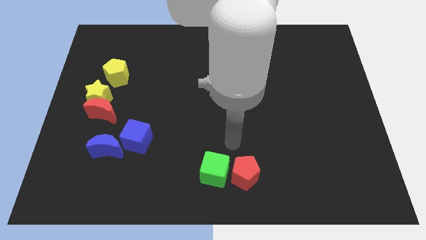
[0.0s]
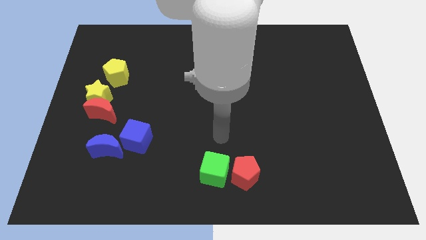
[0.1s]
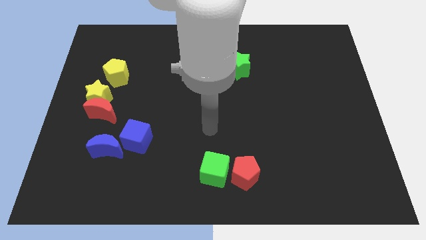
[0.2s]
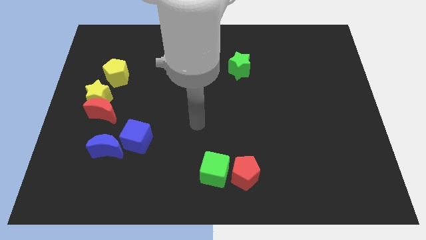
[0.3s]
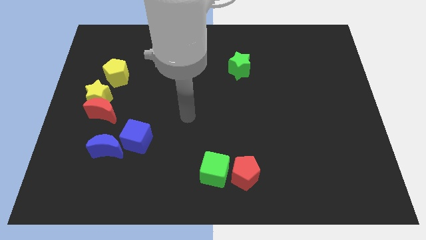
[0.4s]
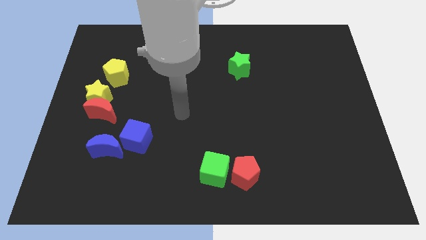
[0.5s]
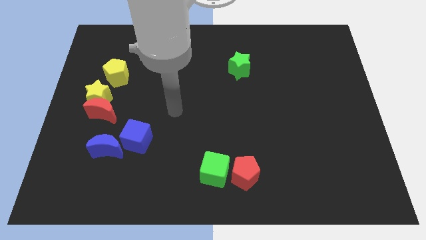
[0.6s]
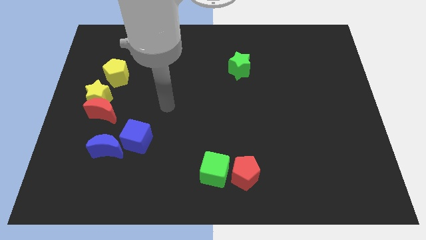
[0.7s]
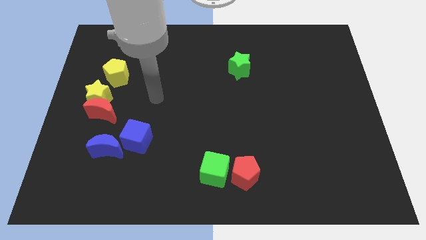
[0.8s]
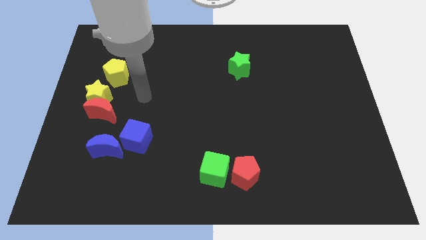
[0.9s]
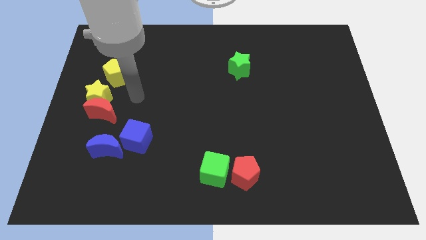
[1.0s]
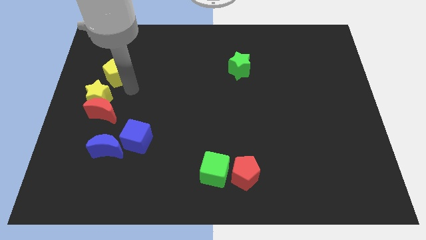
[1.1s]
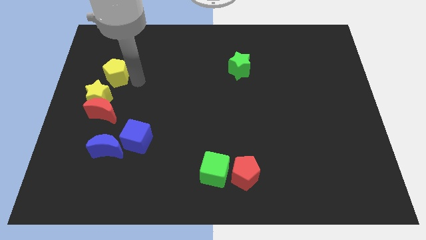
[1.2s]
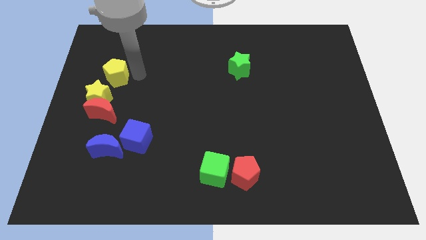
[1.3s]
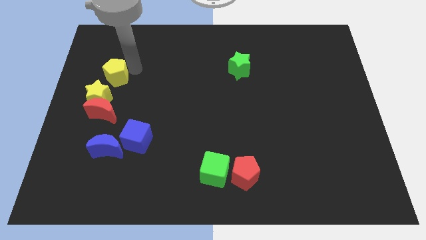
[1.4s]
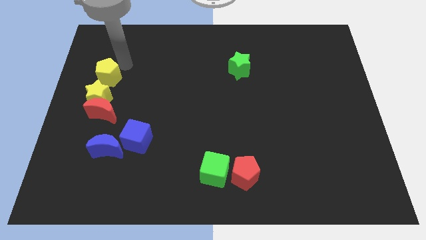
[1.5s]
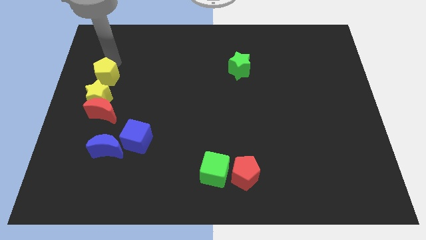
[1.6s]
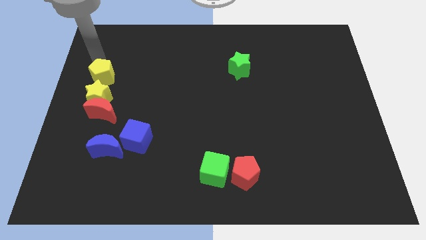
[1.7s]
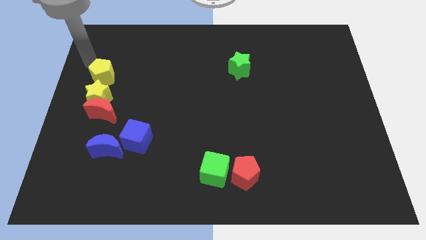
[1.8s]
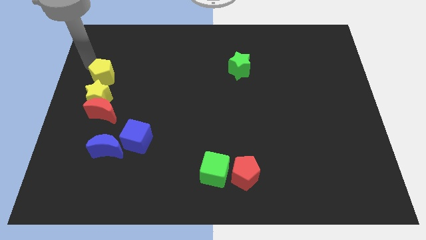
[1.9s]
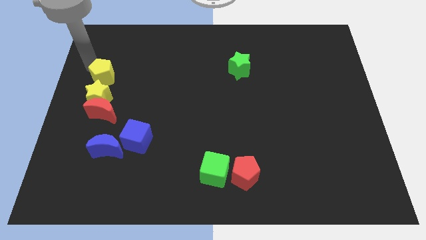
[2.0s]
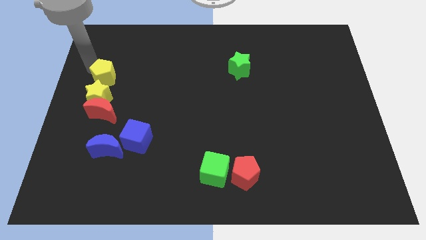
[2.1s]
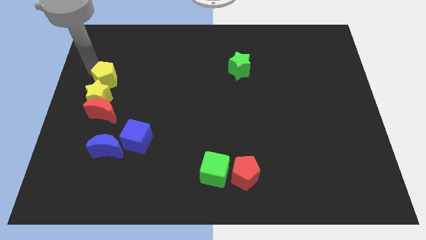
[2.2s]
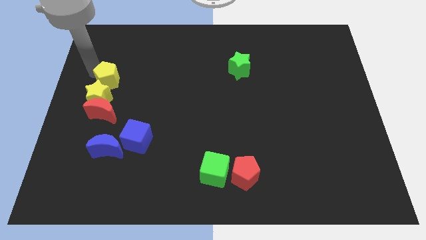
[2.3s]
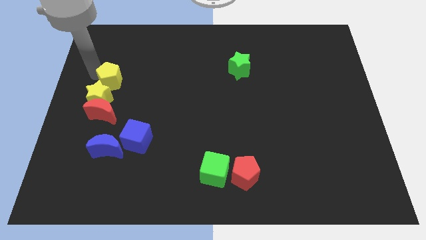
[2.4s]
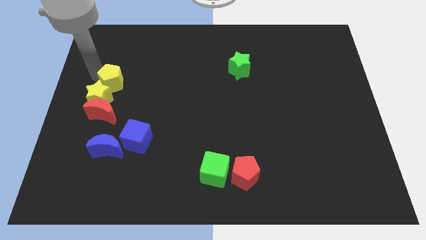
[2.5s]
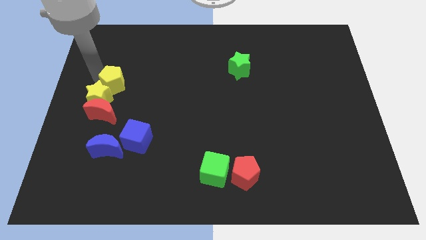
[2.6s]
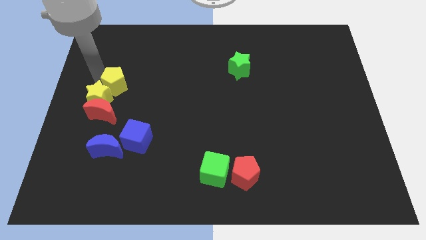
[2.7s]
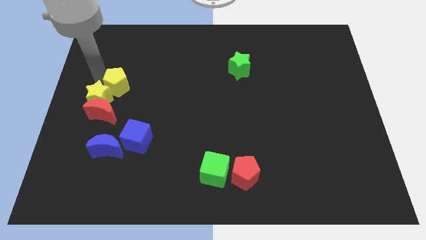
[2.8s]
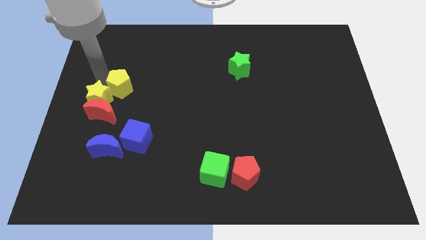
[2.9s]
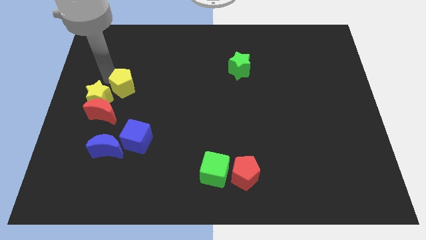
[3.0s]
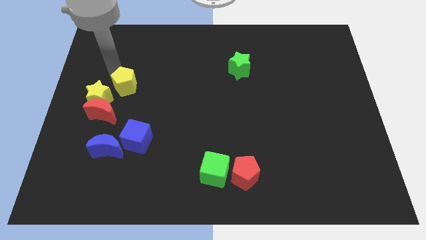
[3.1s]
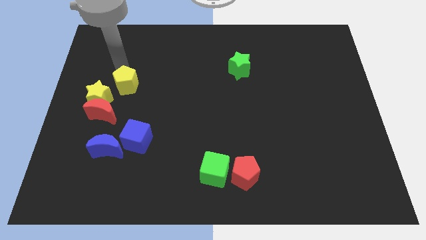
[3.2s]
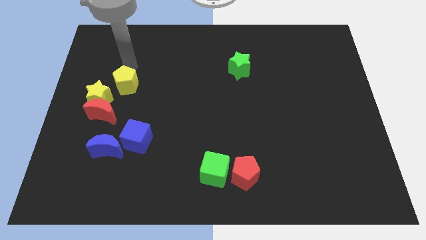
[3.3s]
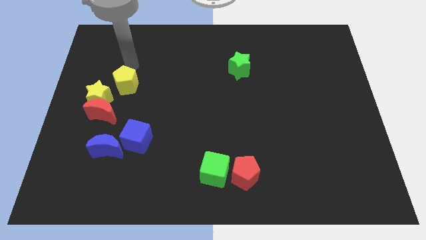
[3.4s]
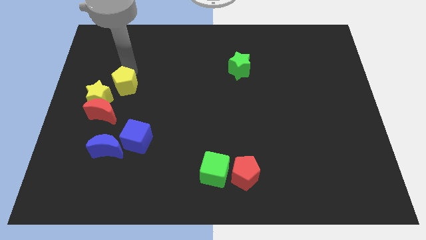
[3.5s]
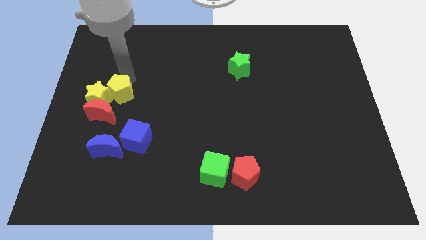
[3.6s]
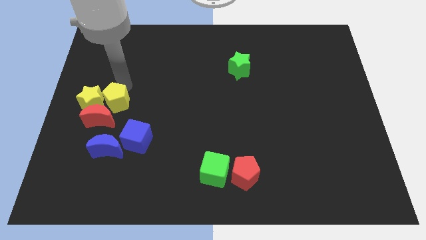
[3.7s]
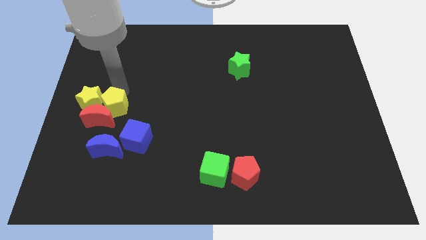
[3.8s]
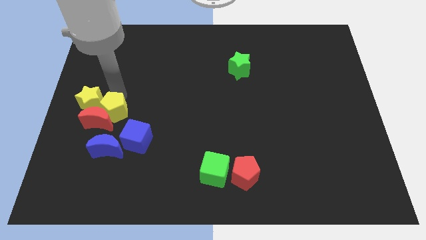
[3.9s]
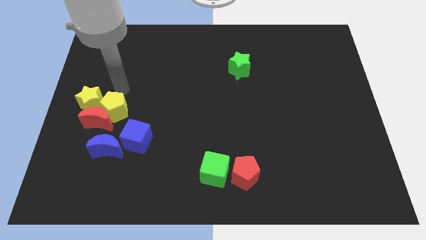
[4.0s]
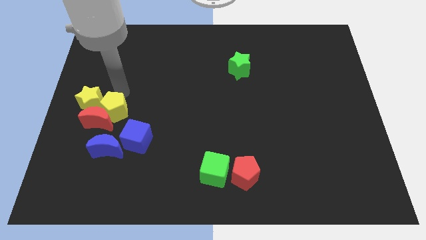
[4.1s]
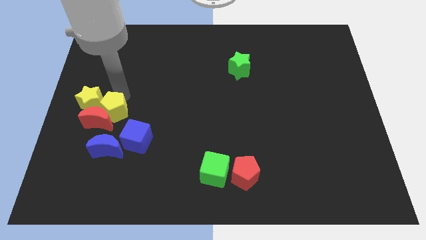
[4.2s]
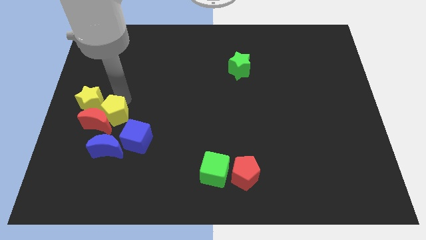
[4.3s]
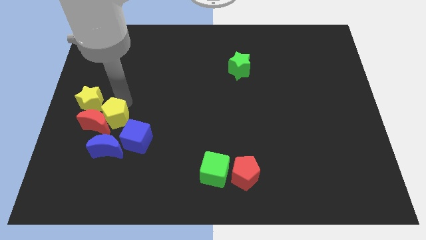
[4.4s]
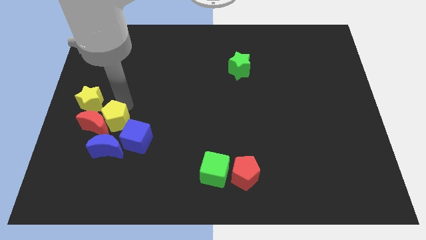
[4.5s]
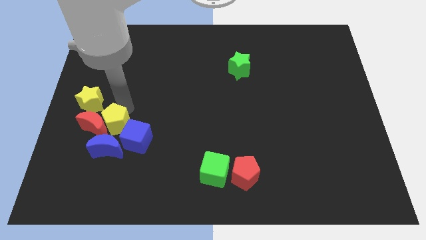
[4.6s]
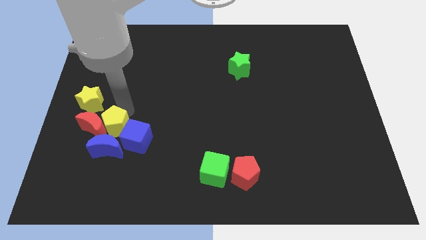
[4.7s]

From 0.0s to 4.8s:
put the yellow pentagon close to the blue moon

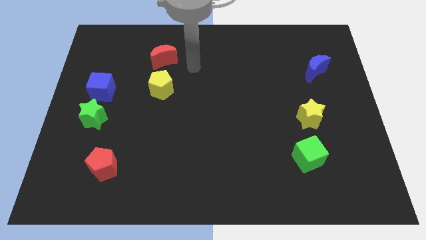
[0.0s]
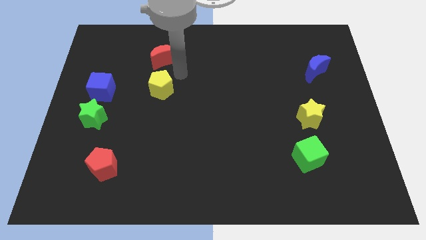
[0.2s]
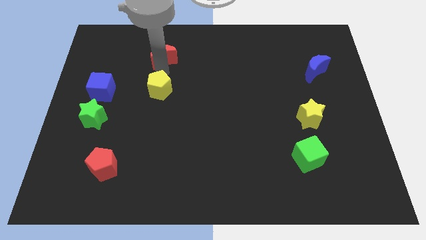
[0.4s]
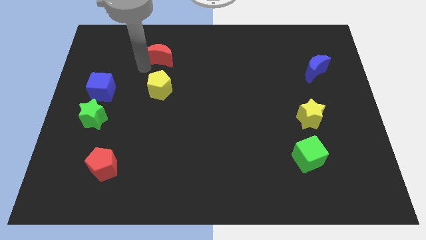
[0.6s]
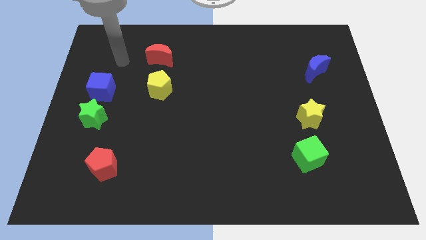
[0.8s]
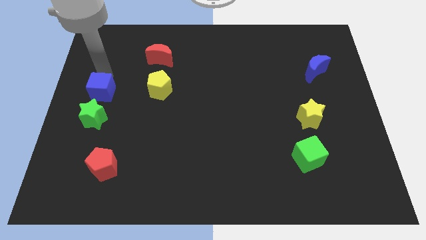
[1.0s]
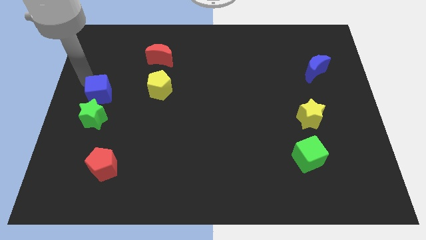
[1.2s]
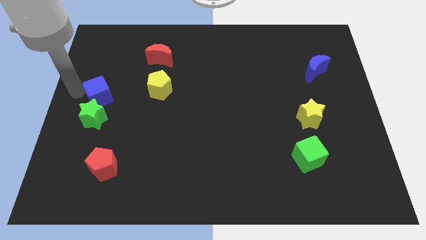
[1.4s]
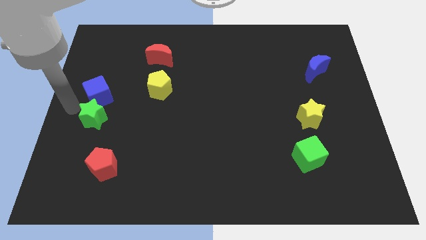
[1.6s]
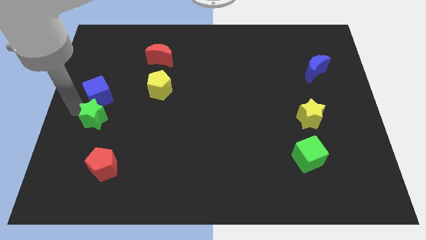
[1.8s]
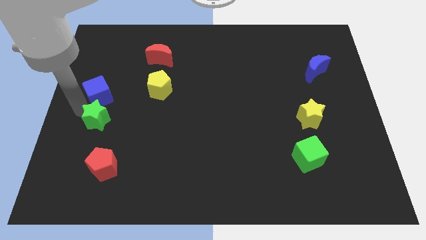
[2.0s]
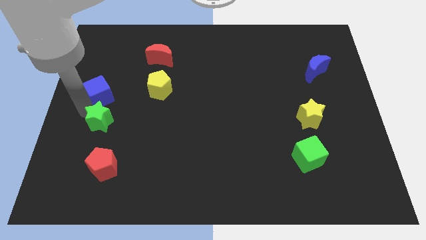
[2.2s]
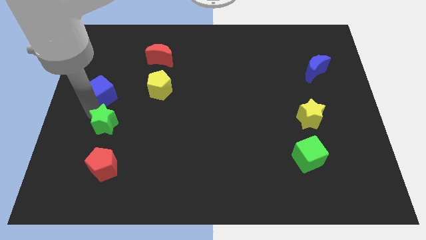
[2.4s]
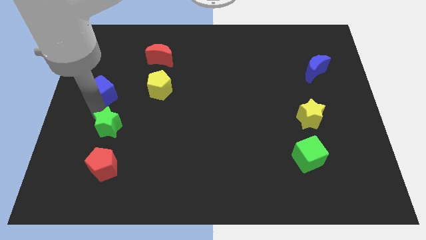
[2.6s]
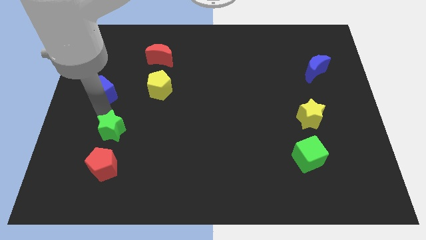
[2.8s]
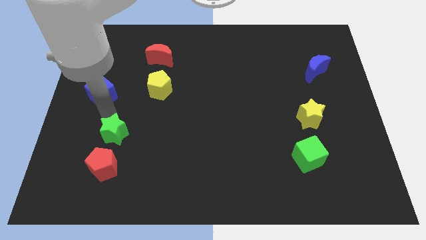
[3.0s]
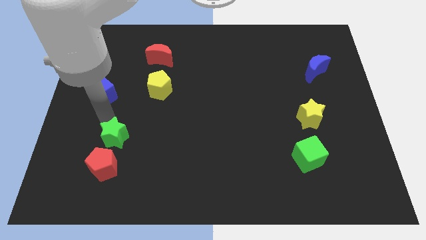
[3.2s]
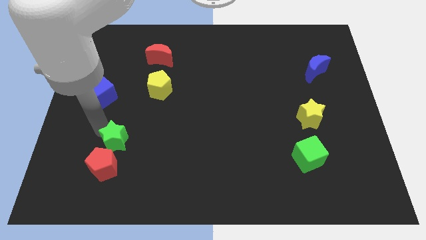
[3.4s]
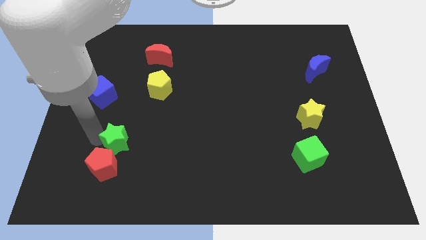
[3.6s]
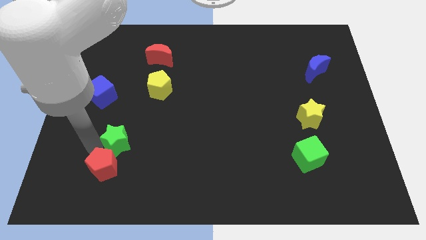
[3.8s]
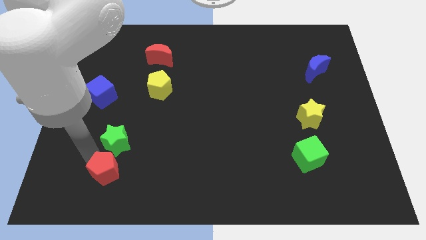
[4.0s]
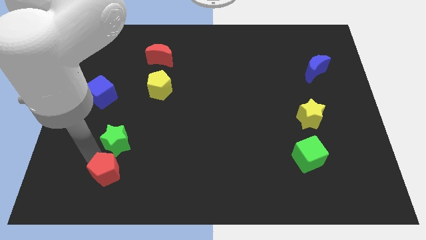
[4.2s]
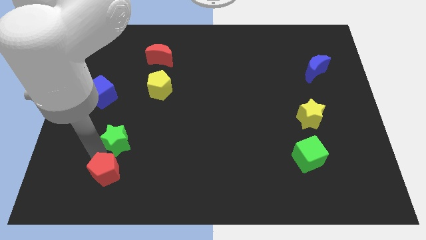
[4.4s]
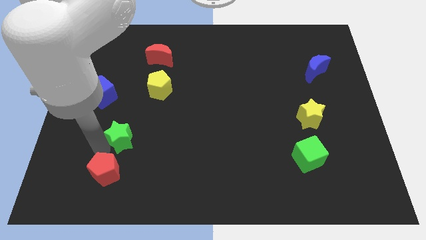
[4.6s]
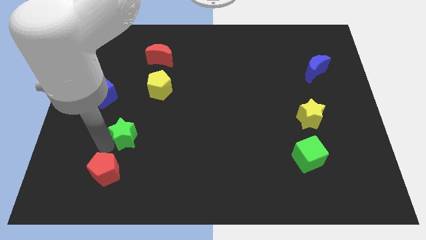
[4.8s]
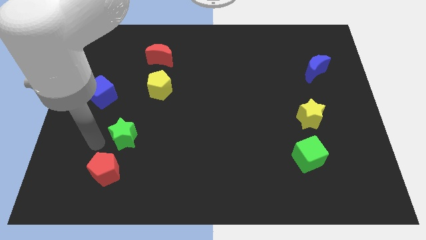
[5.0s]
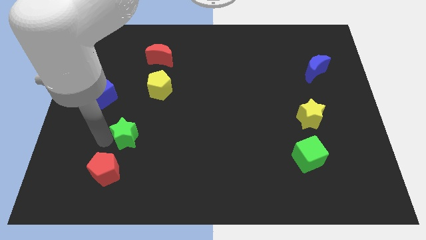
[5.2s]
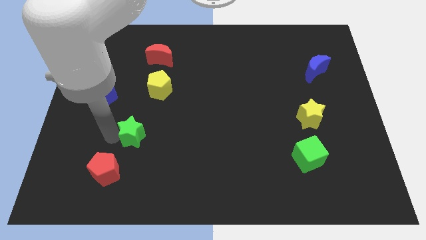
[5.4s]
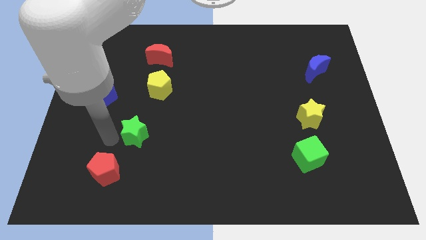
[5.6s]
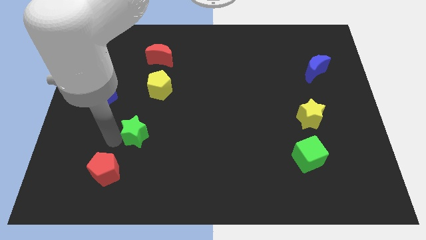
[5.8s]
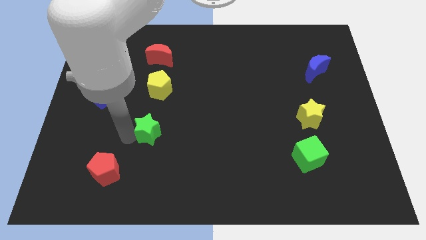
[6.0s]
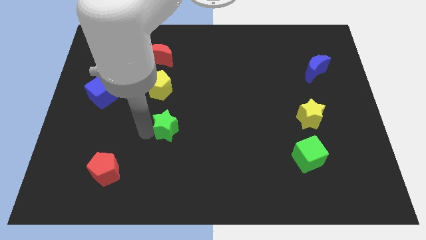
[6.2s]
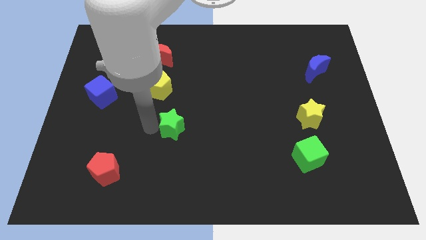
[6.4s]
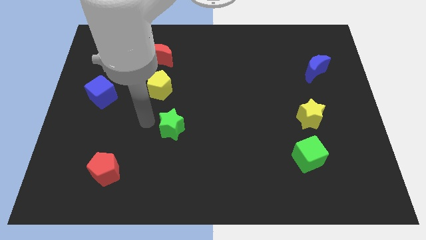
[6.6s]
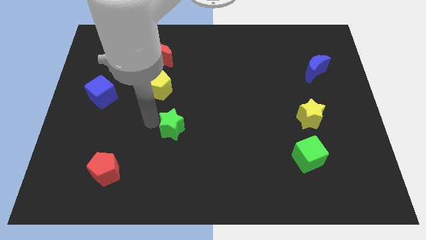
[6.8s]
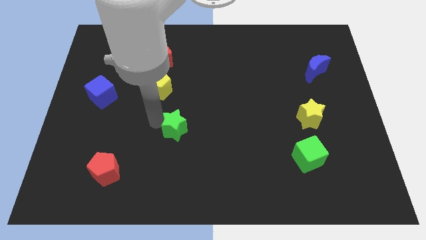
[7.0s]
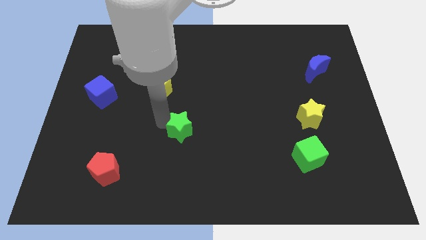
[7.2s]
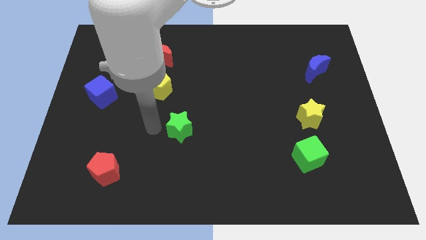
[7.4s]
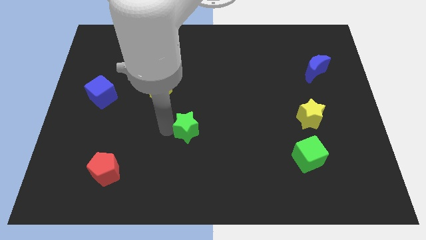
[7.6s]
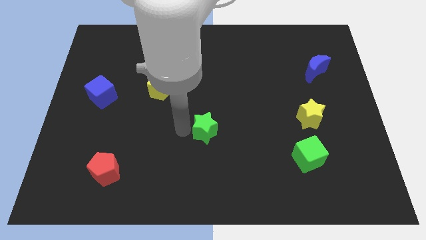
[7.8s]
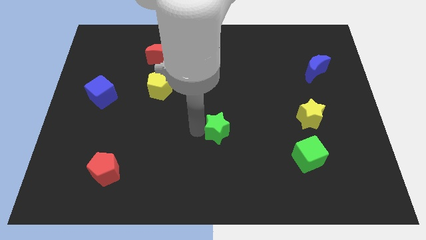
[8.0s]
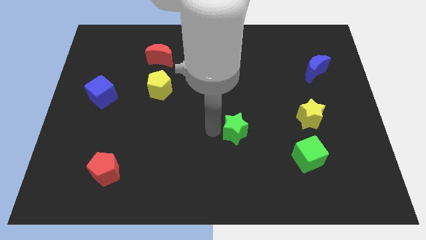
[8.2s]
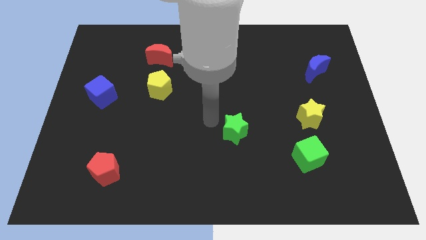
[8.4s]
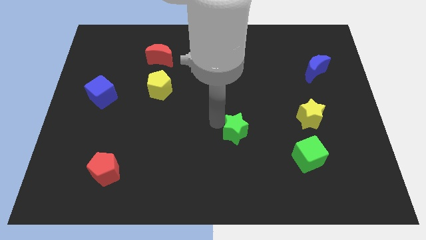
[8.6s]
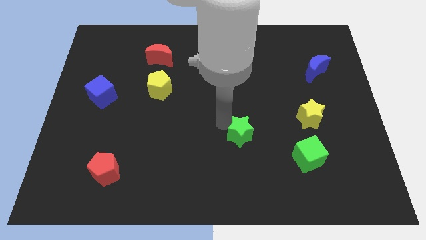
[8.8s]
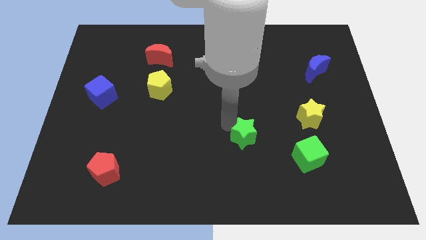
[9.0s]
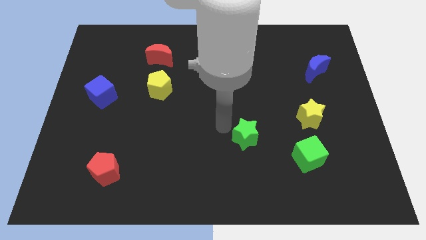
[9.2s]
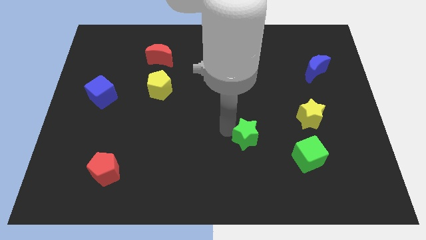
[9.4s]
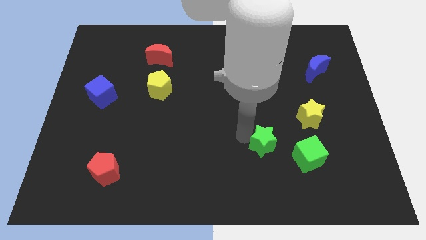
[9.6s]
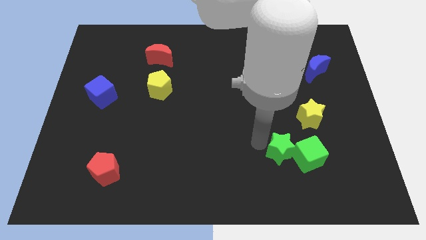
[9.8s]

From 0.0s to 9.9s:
slide the green star towards the green cube
